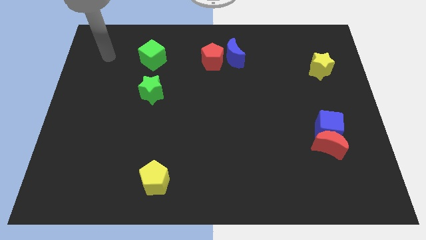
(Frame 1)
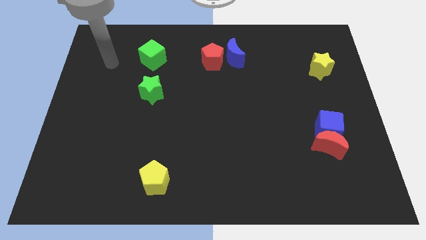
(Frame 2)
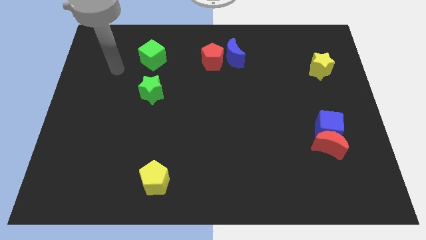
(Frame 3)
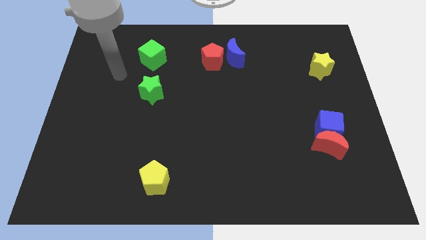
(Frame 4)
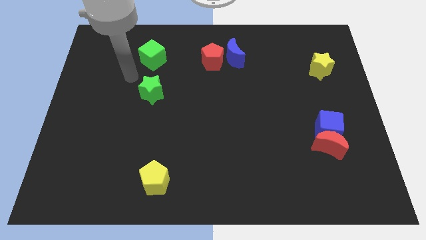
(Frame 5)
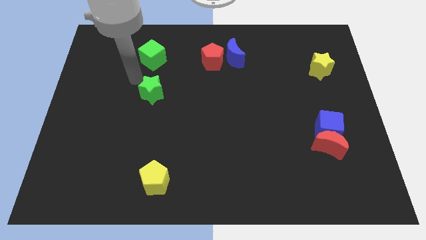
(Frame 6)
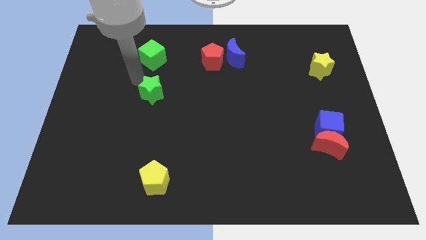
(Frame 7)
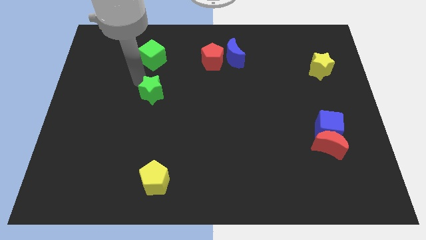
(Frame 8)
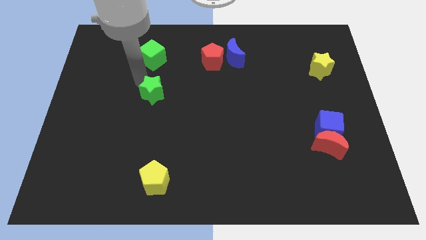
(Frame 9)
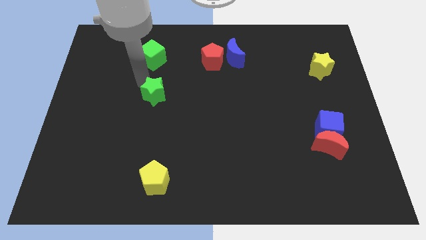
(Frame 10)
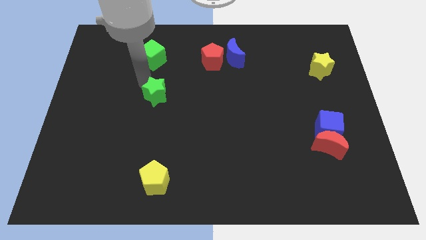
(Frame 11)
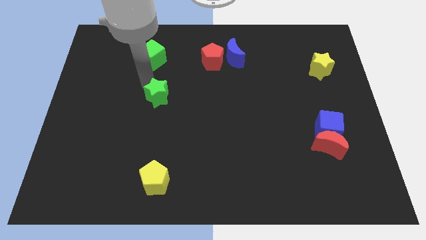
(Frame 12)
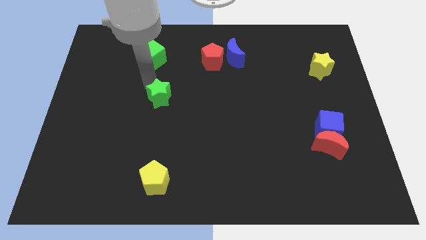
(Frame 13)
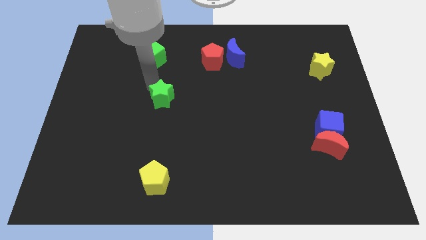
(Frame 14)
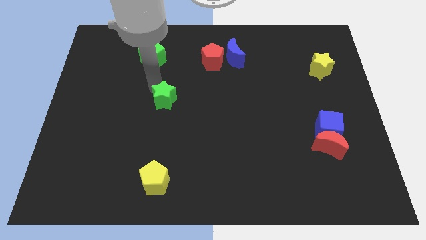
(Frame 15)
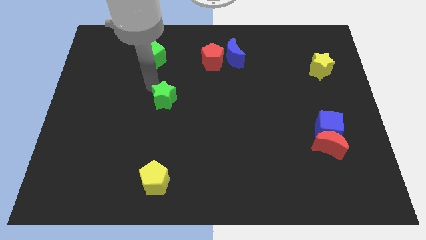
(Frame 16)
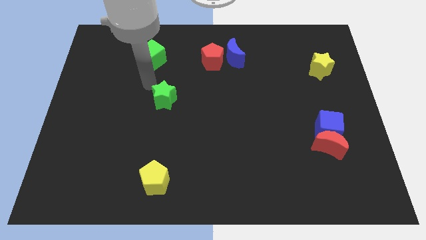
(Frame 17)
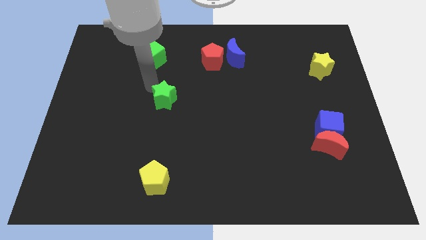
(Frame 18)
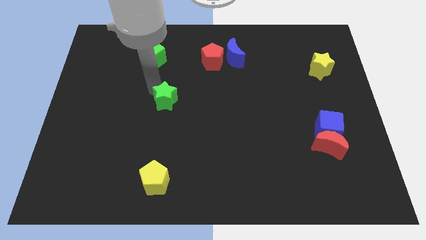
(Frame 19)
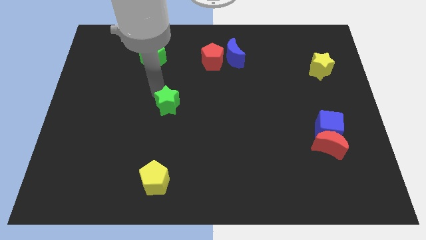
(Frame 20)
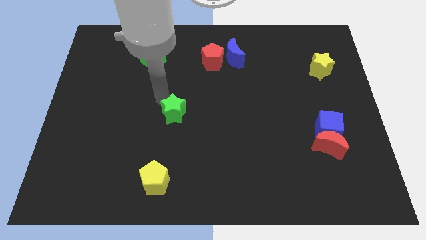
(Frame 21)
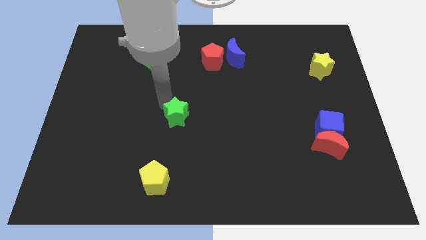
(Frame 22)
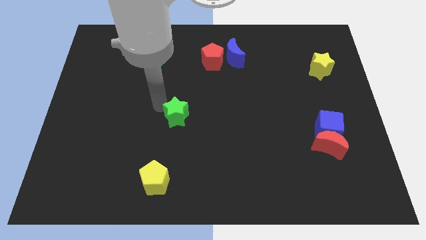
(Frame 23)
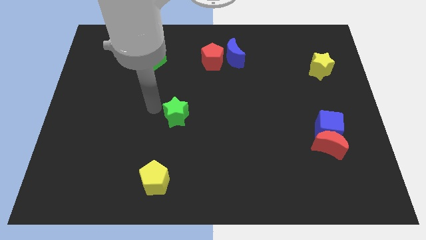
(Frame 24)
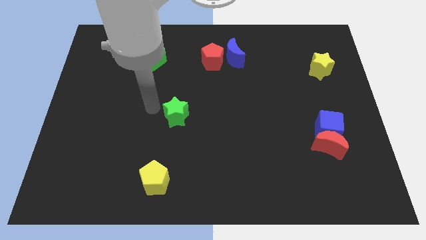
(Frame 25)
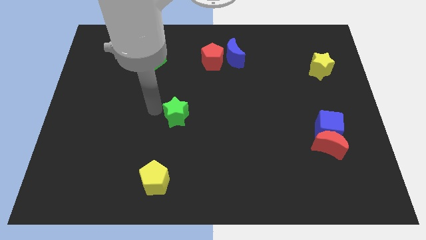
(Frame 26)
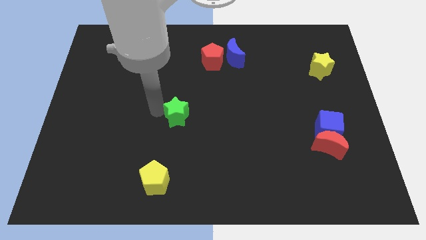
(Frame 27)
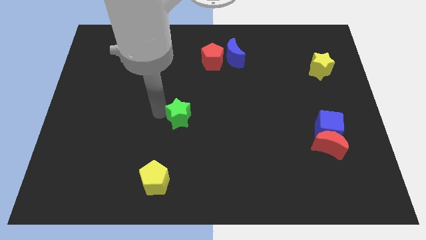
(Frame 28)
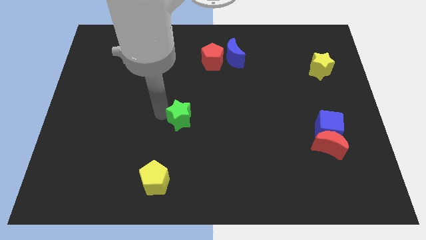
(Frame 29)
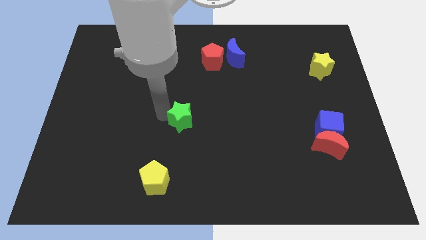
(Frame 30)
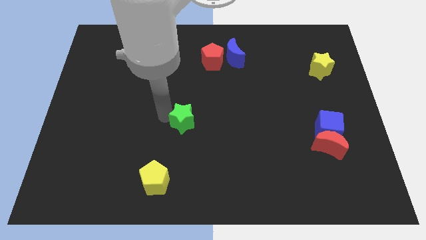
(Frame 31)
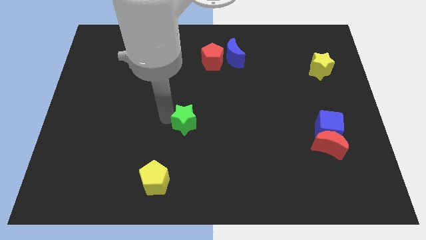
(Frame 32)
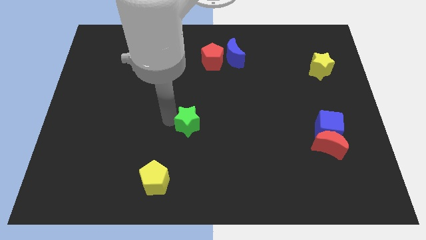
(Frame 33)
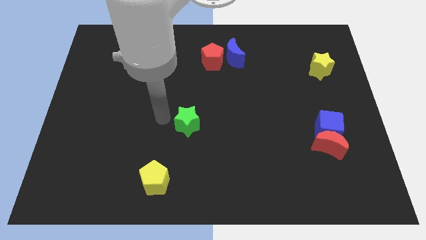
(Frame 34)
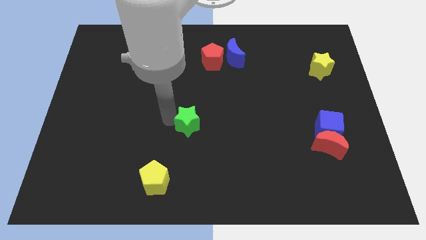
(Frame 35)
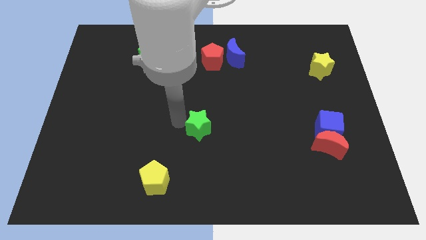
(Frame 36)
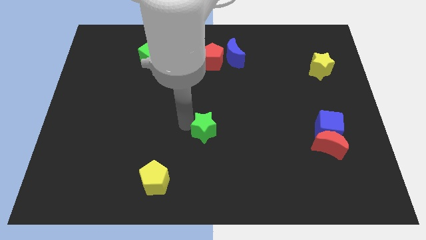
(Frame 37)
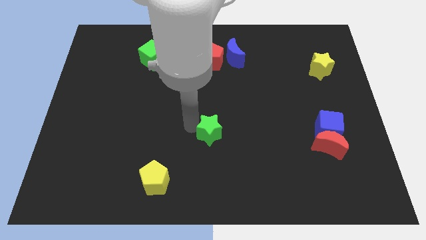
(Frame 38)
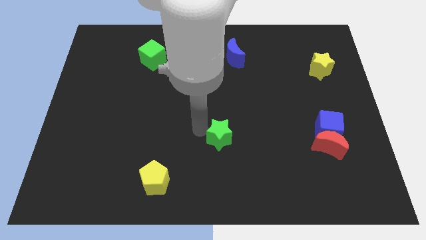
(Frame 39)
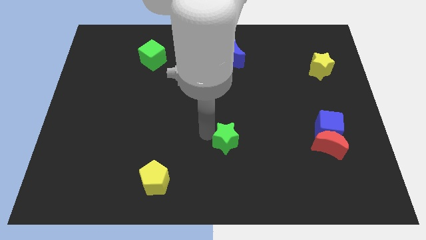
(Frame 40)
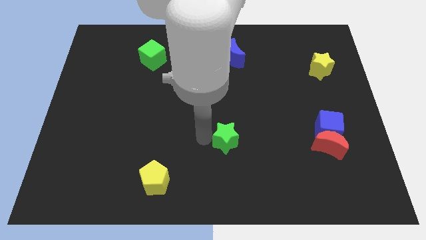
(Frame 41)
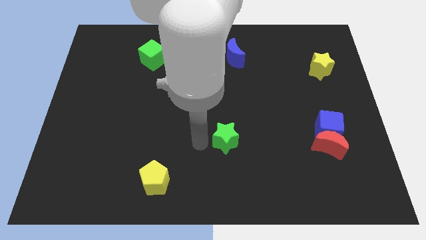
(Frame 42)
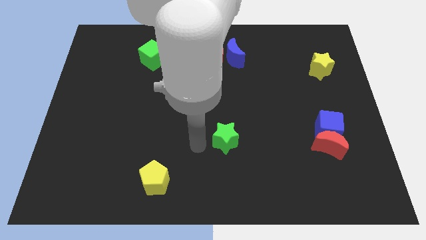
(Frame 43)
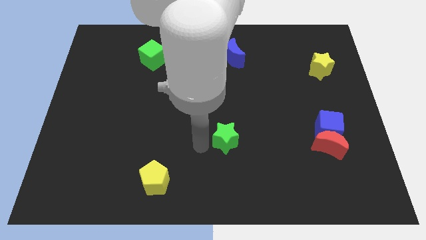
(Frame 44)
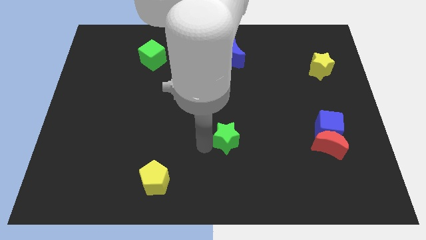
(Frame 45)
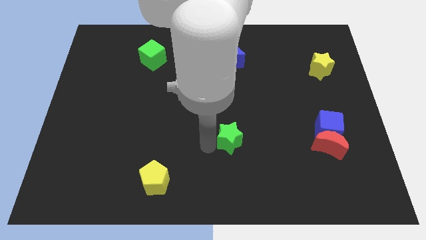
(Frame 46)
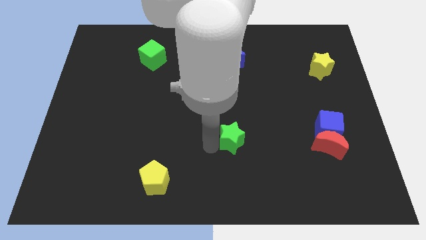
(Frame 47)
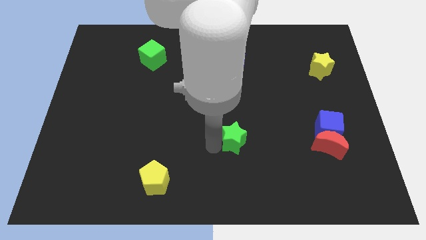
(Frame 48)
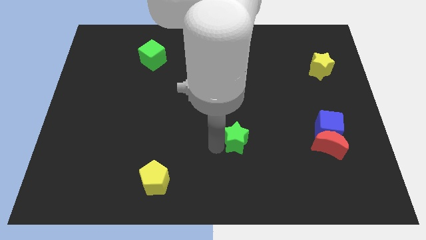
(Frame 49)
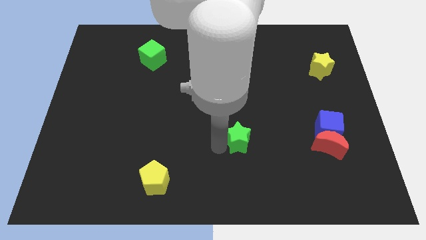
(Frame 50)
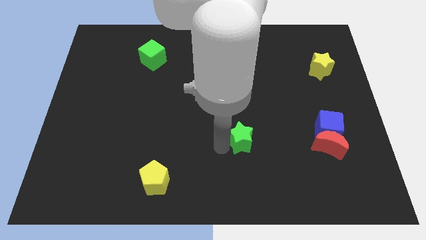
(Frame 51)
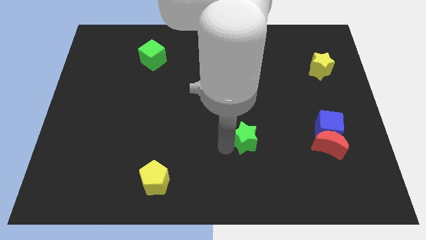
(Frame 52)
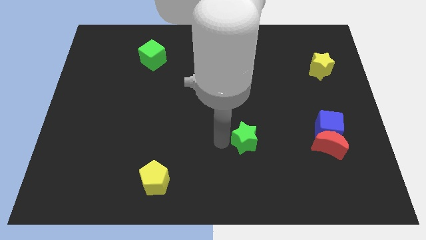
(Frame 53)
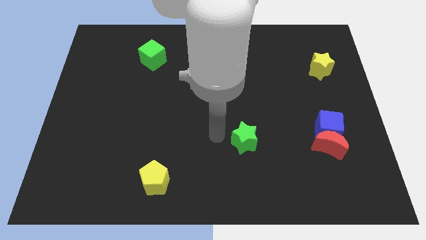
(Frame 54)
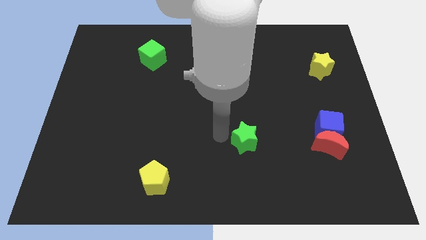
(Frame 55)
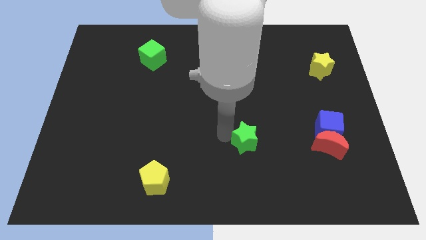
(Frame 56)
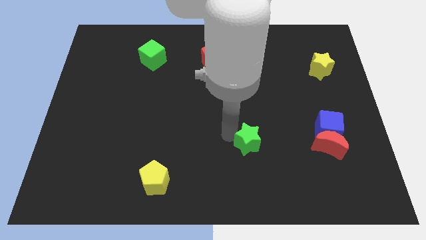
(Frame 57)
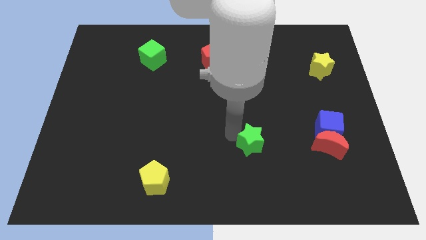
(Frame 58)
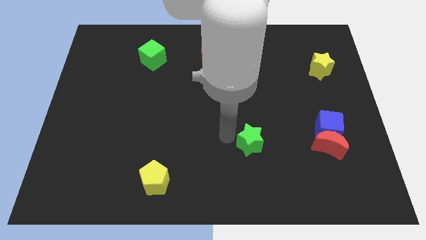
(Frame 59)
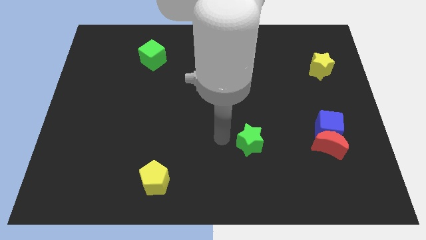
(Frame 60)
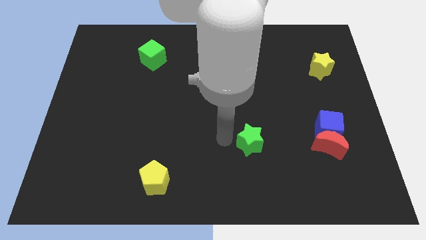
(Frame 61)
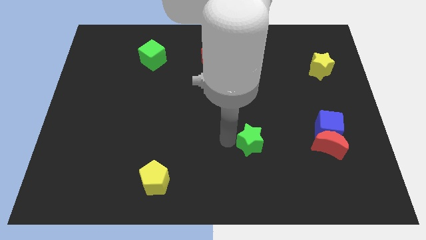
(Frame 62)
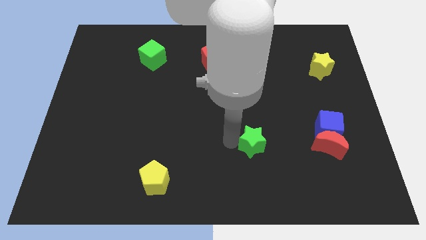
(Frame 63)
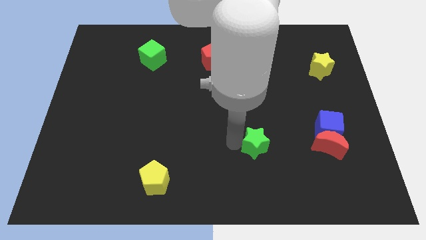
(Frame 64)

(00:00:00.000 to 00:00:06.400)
put the green star to the left side of the red moon

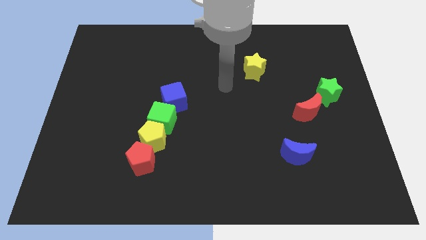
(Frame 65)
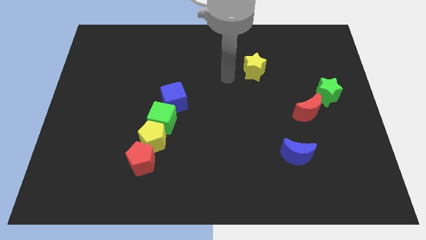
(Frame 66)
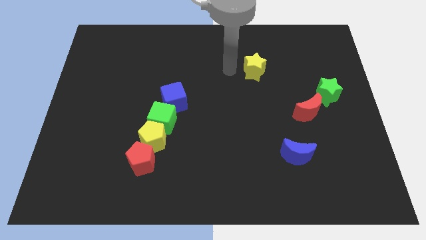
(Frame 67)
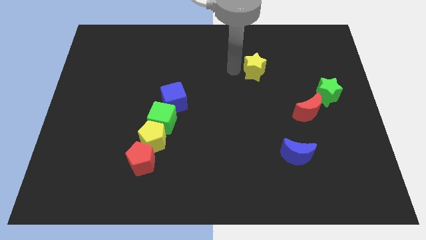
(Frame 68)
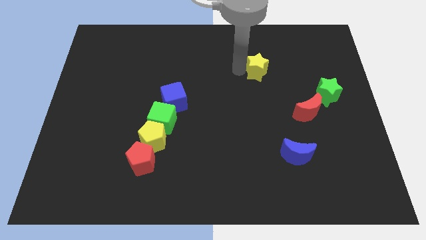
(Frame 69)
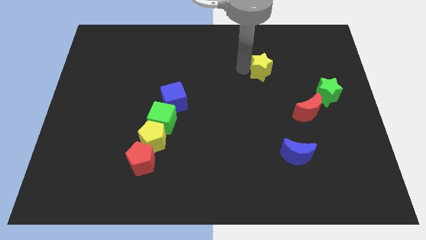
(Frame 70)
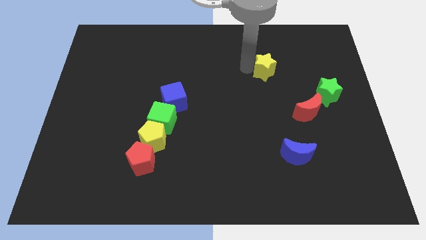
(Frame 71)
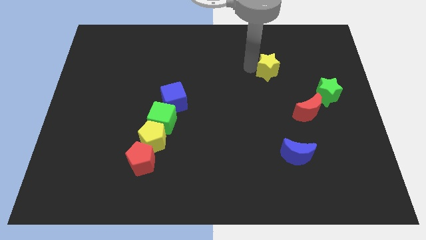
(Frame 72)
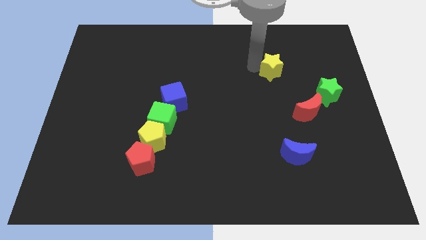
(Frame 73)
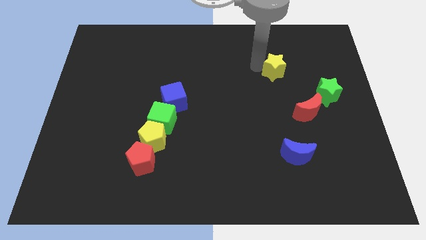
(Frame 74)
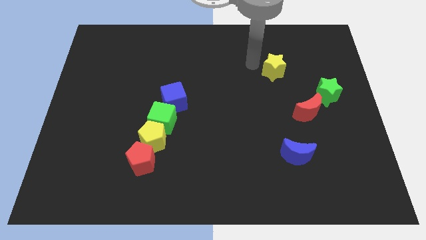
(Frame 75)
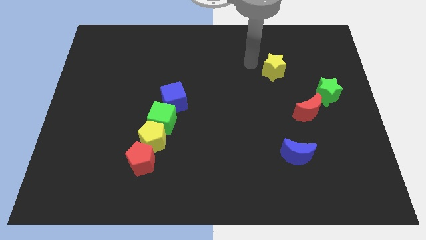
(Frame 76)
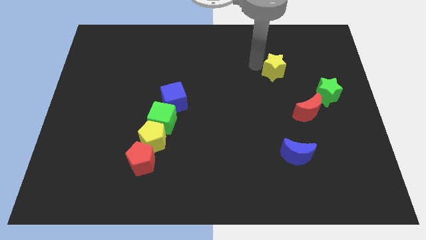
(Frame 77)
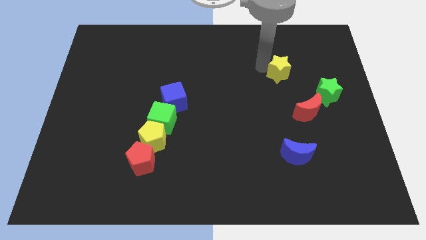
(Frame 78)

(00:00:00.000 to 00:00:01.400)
slide the yellow star to the top left side of the green star
